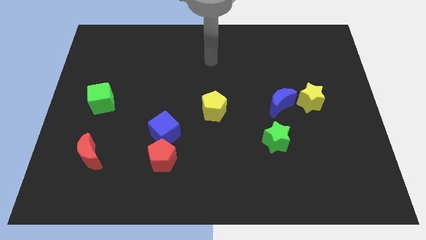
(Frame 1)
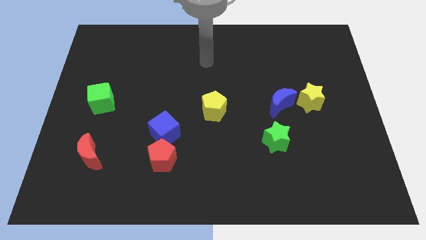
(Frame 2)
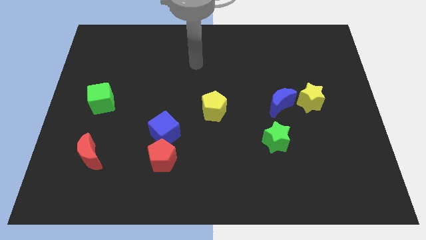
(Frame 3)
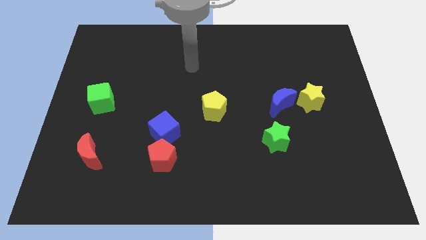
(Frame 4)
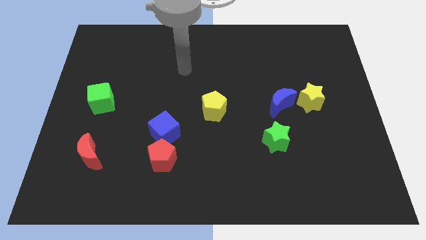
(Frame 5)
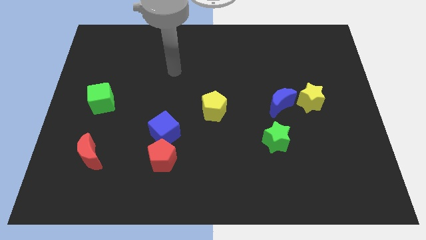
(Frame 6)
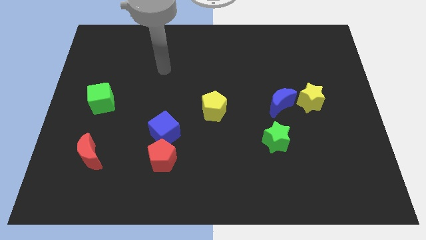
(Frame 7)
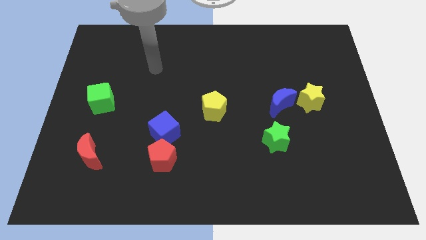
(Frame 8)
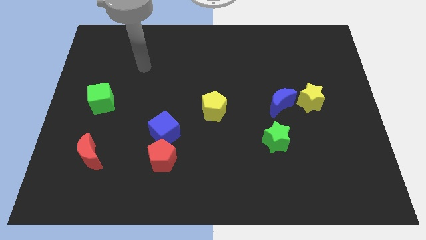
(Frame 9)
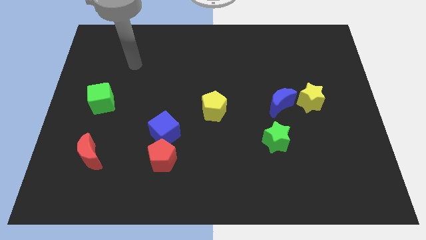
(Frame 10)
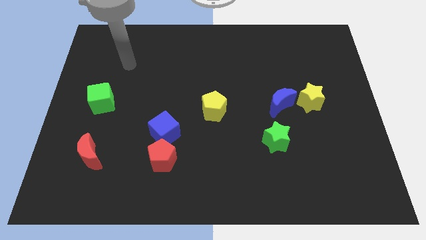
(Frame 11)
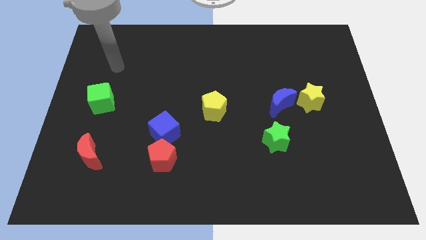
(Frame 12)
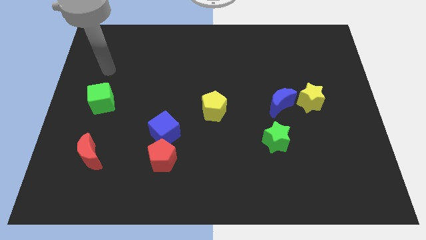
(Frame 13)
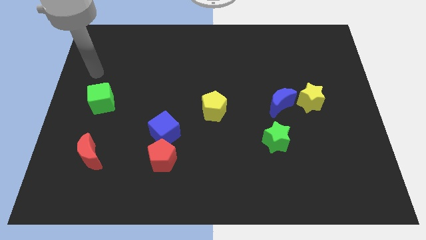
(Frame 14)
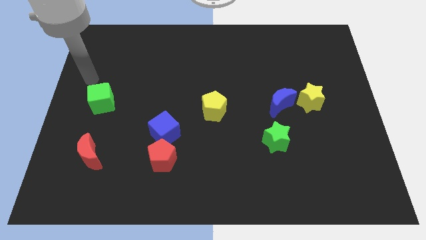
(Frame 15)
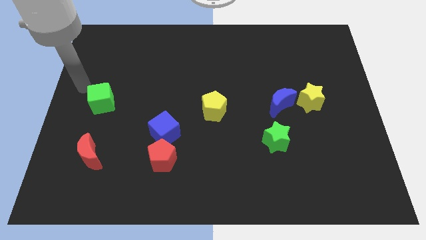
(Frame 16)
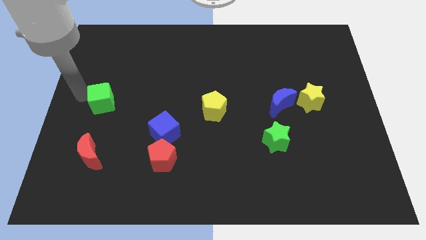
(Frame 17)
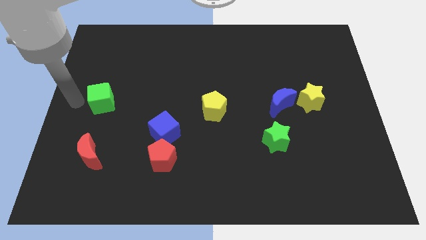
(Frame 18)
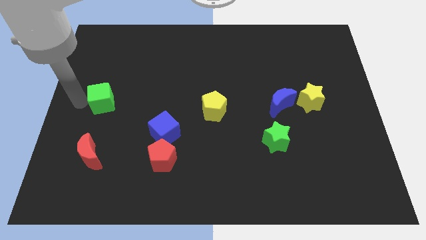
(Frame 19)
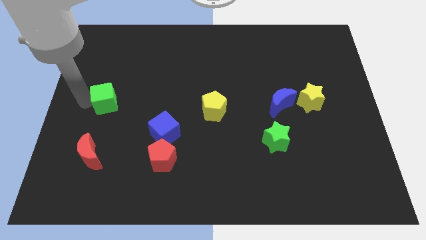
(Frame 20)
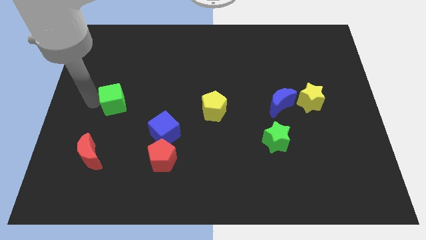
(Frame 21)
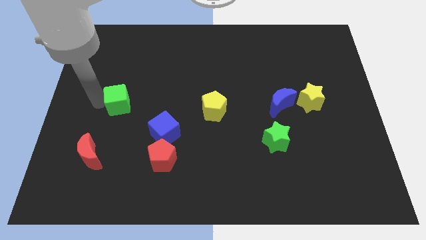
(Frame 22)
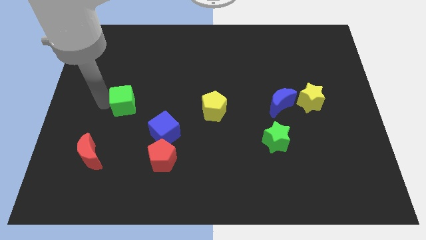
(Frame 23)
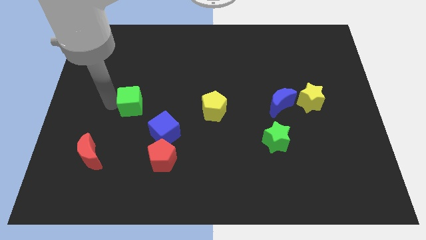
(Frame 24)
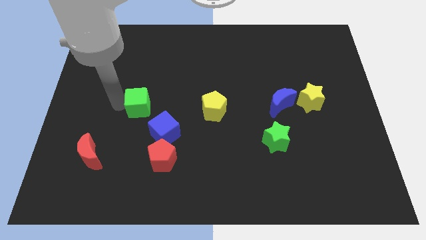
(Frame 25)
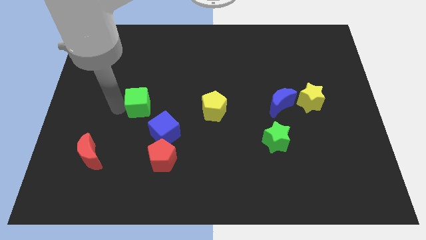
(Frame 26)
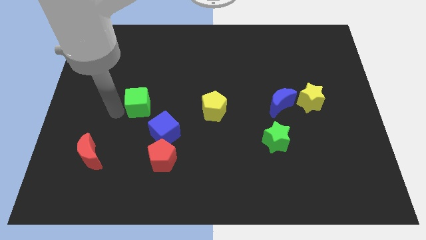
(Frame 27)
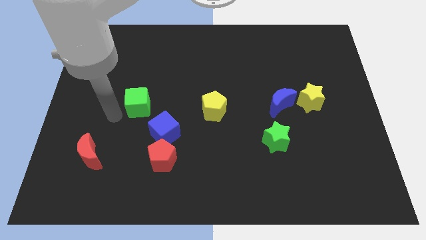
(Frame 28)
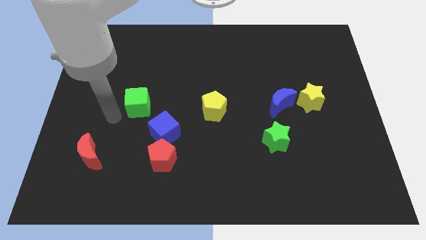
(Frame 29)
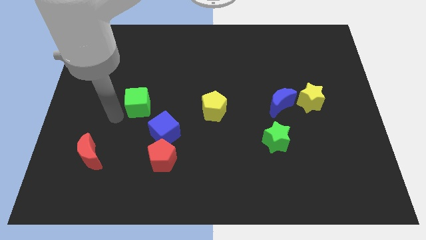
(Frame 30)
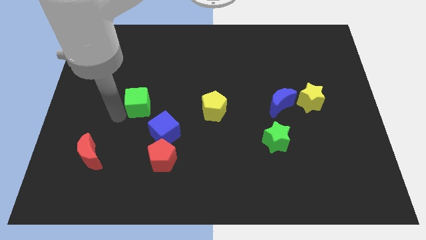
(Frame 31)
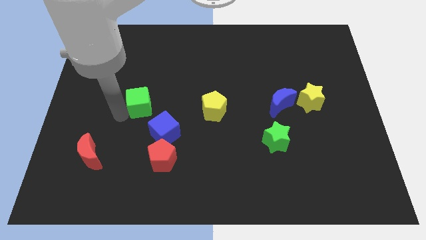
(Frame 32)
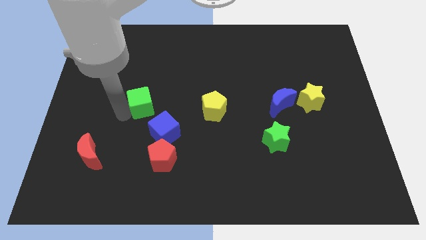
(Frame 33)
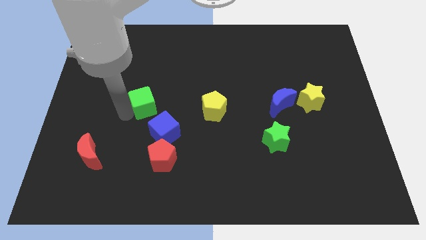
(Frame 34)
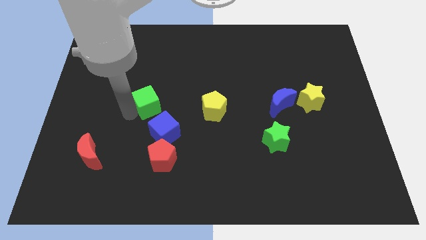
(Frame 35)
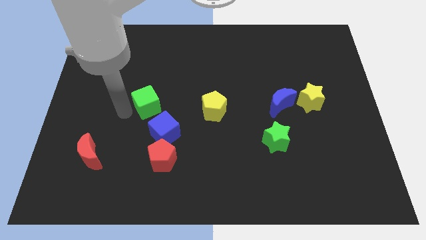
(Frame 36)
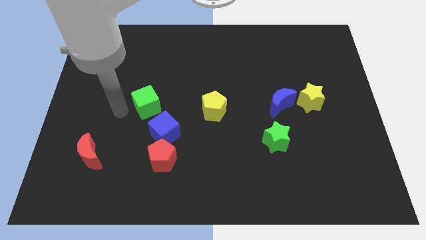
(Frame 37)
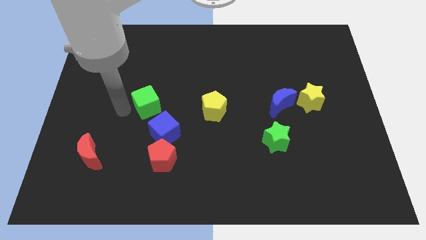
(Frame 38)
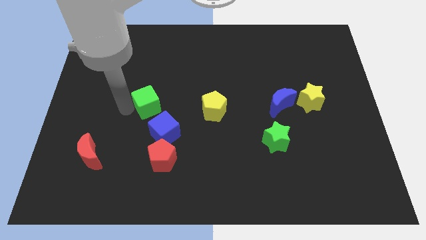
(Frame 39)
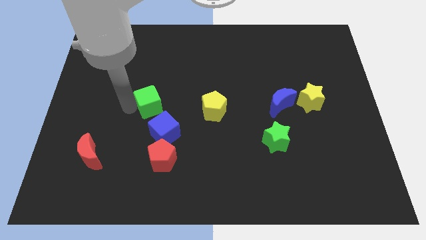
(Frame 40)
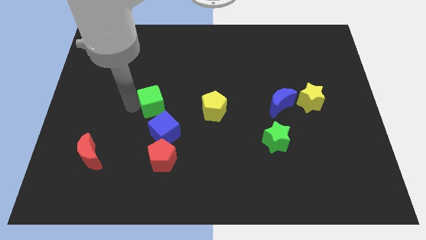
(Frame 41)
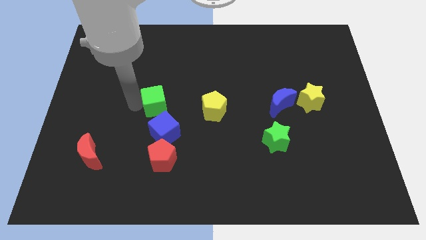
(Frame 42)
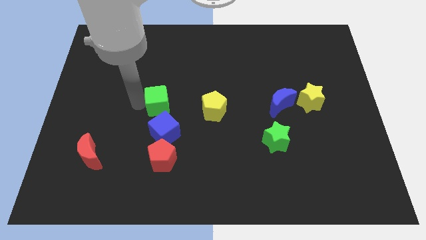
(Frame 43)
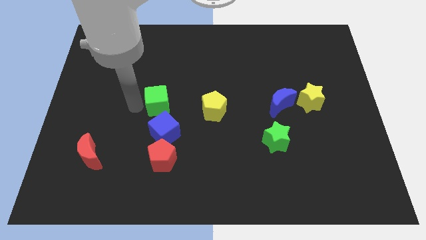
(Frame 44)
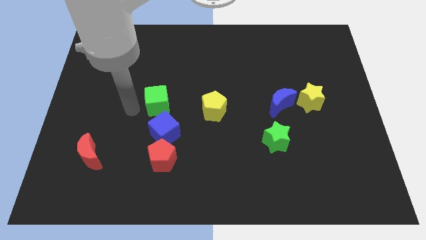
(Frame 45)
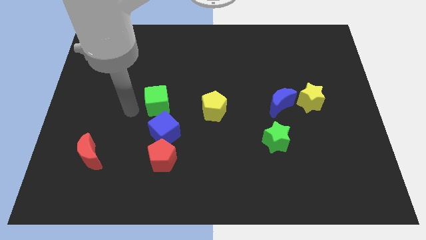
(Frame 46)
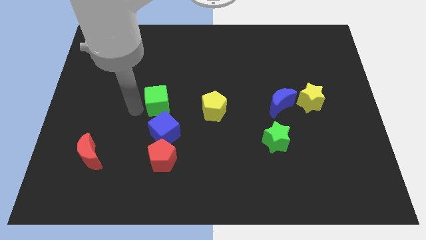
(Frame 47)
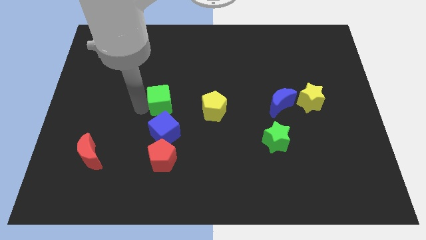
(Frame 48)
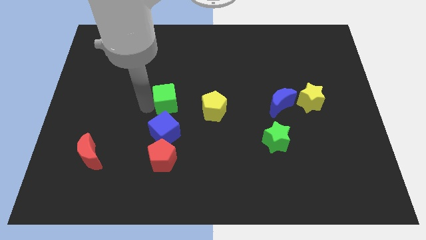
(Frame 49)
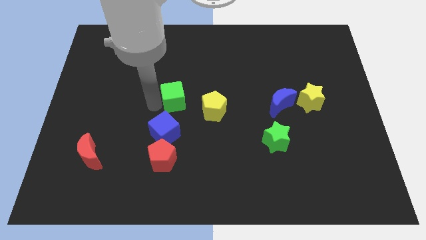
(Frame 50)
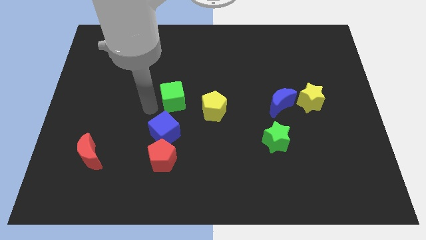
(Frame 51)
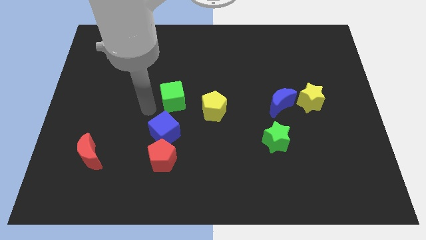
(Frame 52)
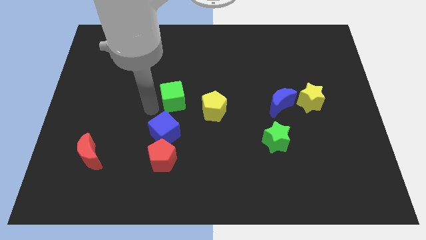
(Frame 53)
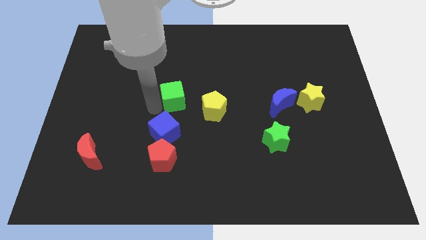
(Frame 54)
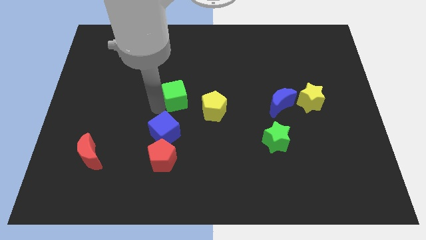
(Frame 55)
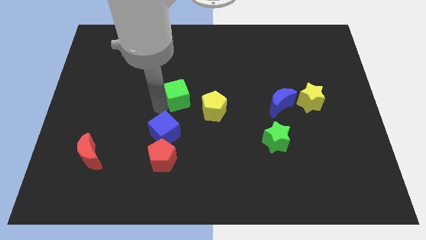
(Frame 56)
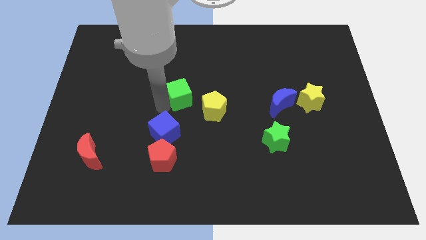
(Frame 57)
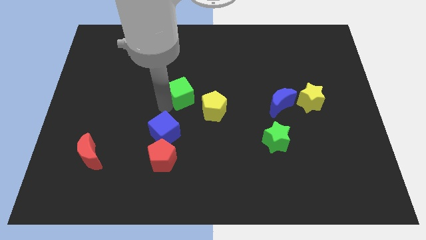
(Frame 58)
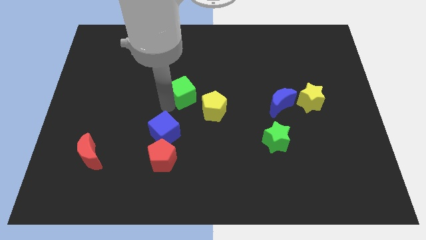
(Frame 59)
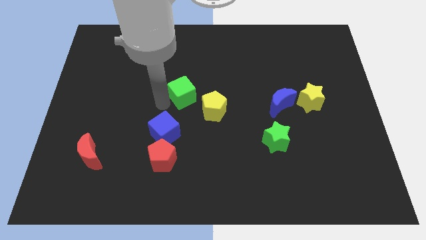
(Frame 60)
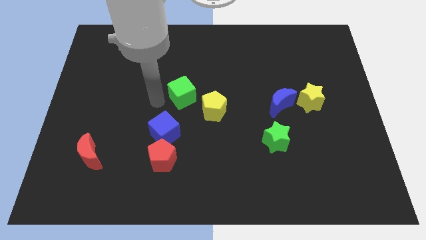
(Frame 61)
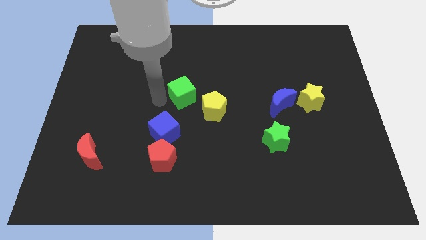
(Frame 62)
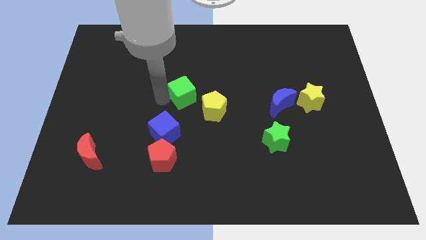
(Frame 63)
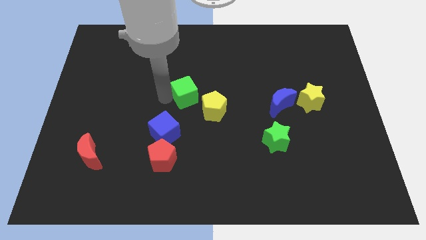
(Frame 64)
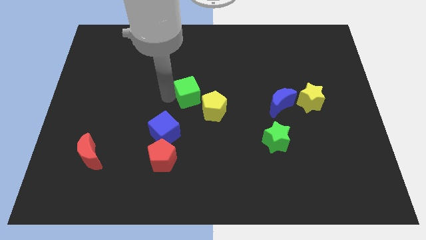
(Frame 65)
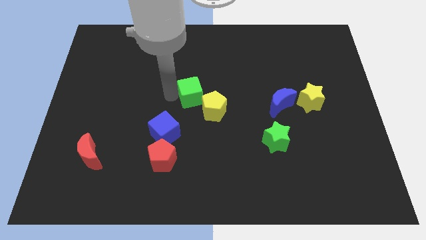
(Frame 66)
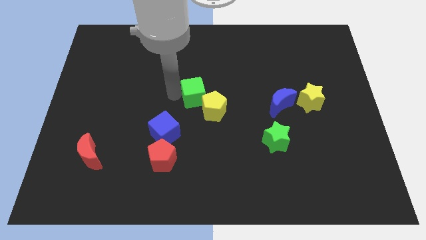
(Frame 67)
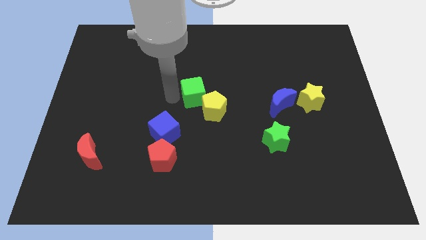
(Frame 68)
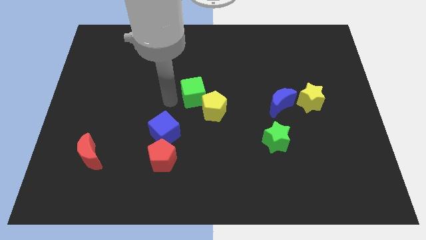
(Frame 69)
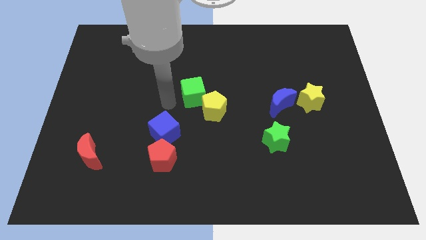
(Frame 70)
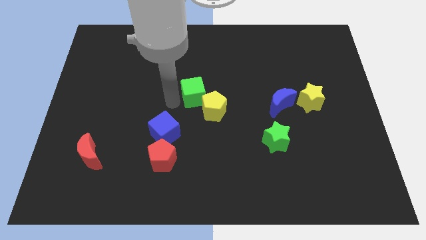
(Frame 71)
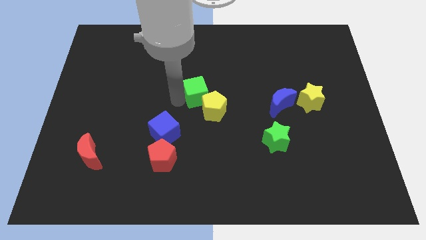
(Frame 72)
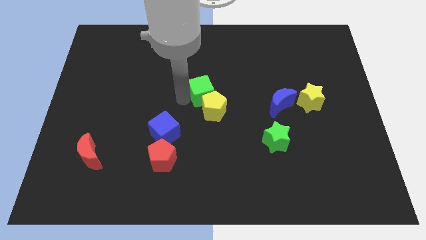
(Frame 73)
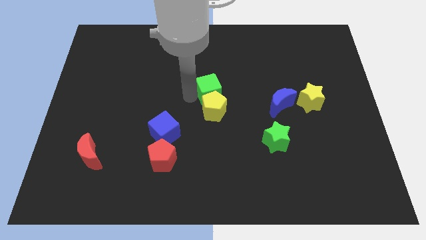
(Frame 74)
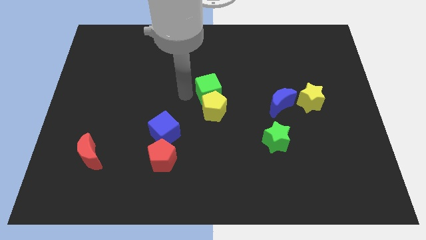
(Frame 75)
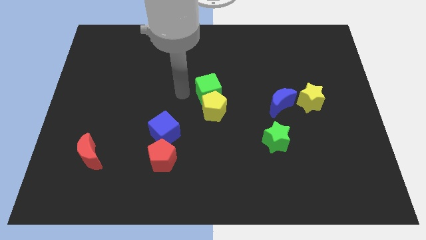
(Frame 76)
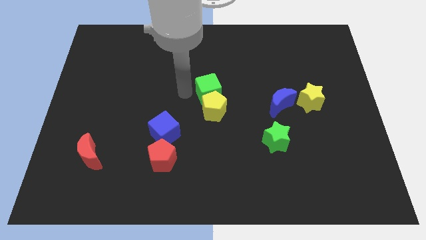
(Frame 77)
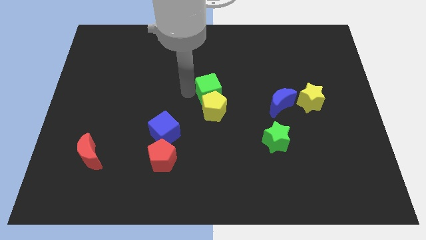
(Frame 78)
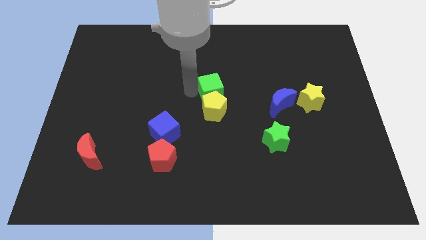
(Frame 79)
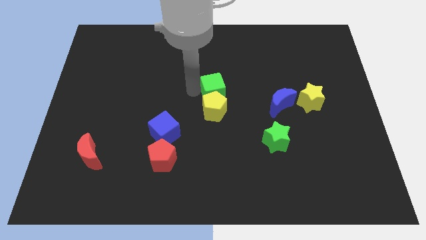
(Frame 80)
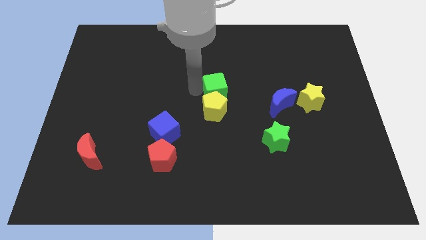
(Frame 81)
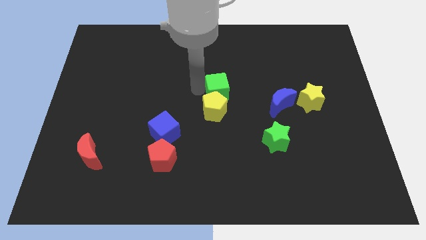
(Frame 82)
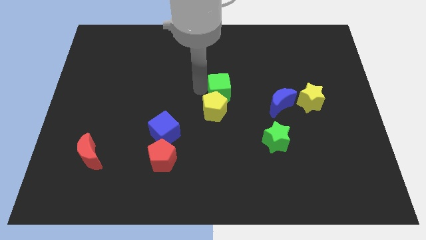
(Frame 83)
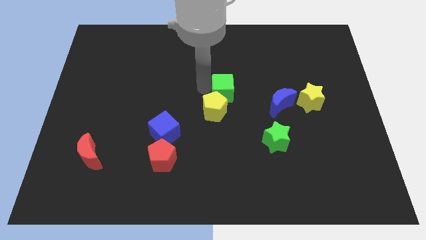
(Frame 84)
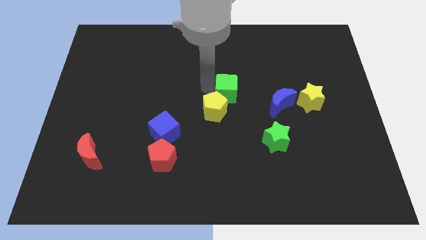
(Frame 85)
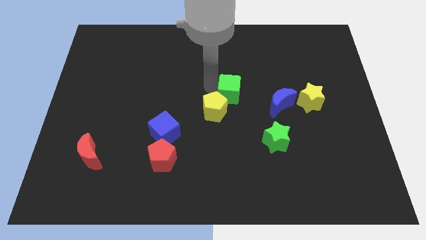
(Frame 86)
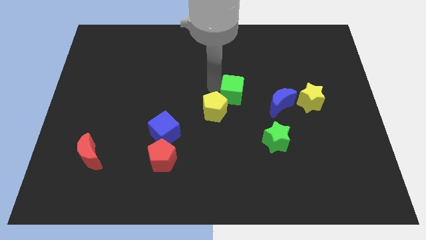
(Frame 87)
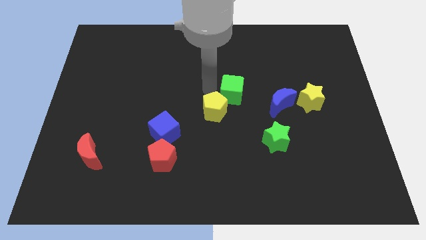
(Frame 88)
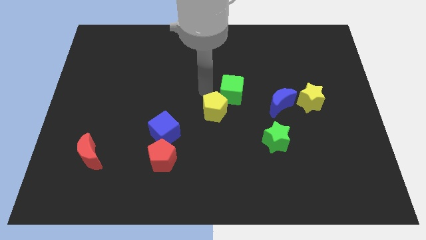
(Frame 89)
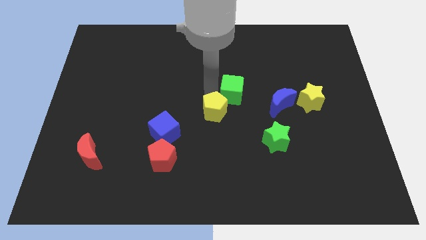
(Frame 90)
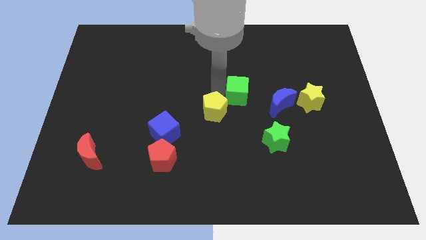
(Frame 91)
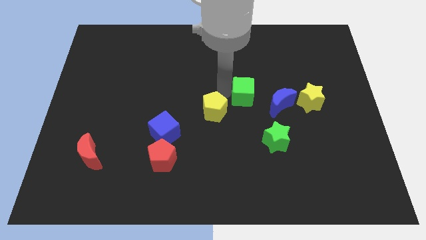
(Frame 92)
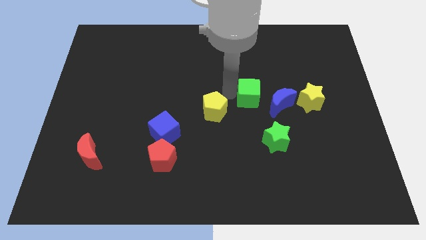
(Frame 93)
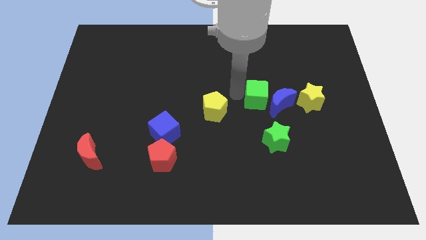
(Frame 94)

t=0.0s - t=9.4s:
move the green cube close to the blue moon
